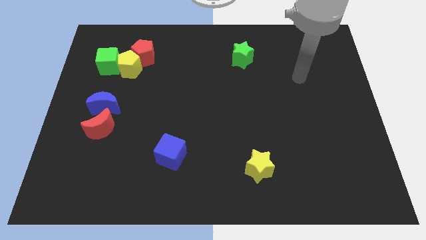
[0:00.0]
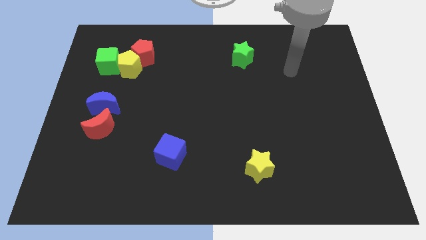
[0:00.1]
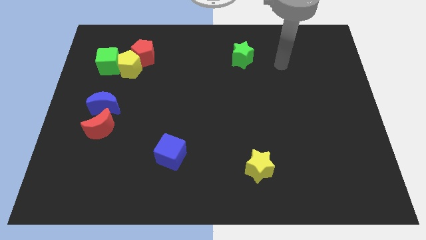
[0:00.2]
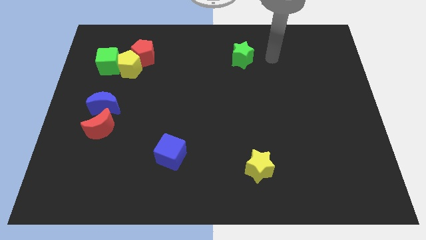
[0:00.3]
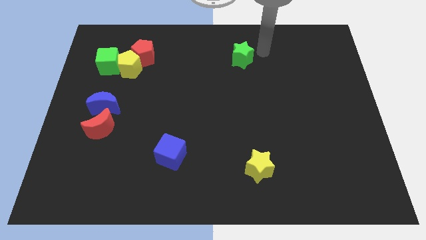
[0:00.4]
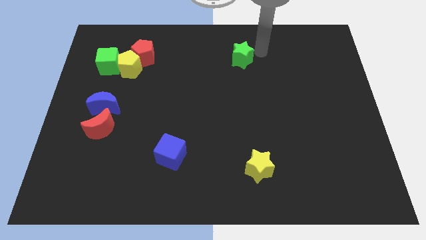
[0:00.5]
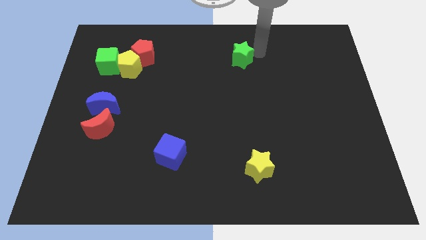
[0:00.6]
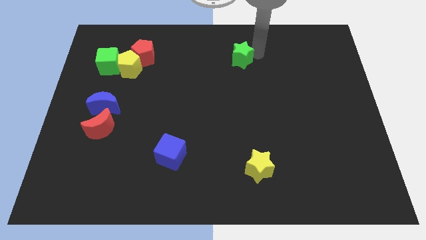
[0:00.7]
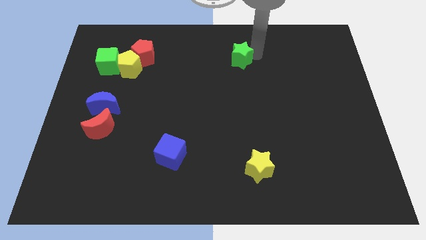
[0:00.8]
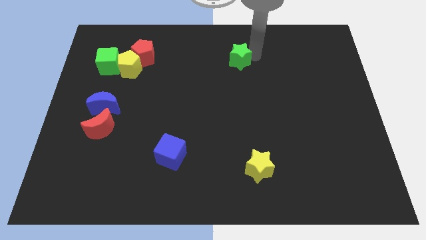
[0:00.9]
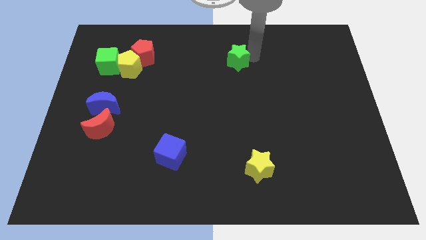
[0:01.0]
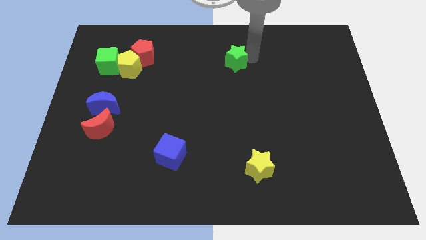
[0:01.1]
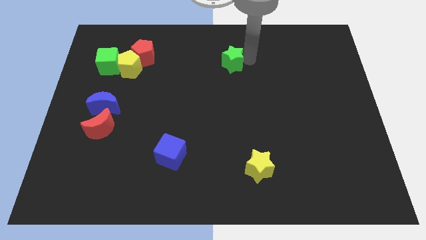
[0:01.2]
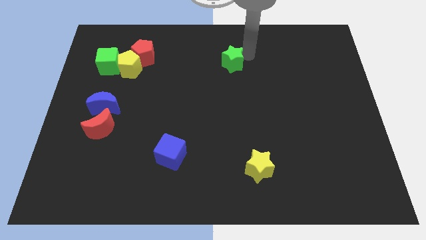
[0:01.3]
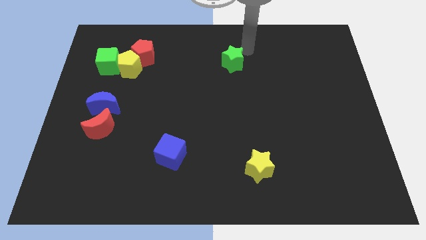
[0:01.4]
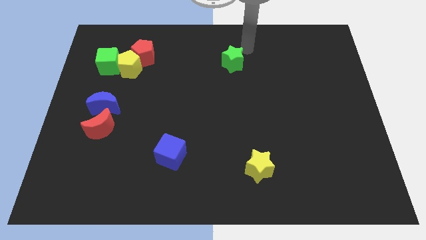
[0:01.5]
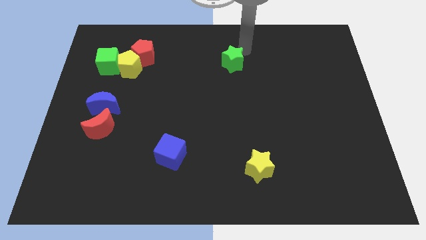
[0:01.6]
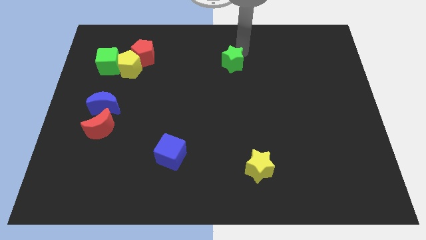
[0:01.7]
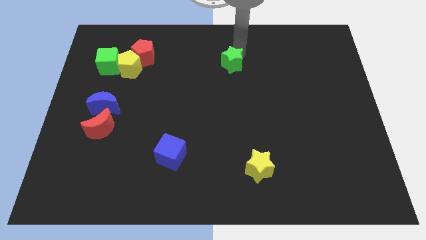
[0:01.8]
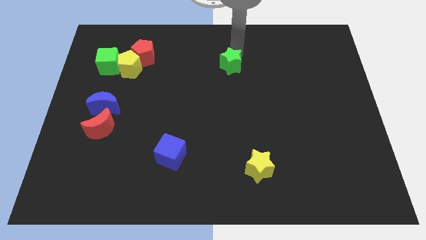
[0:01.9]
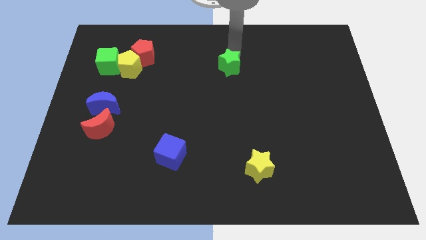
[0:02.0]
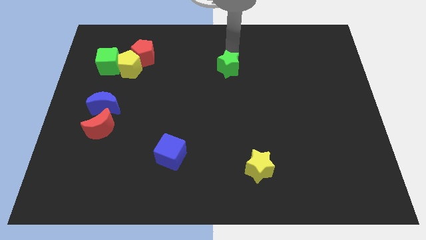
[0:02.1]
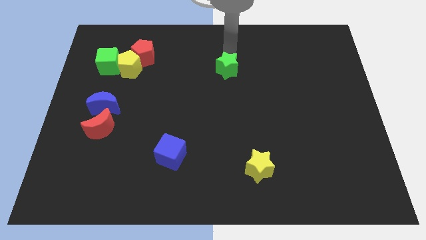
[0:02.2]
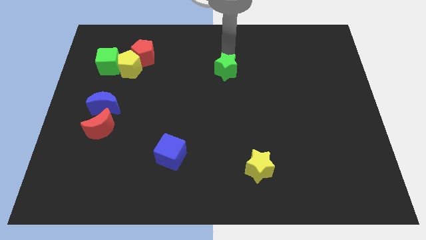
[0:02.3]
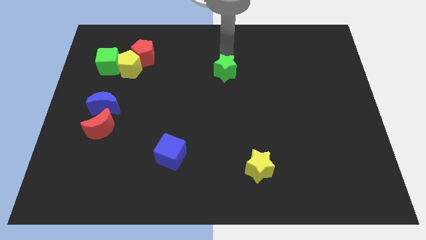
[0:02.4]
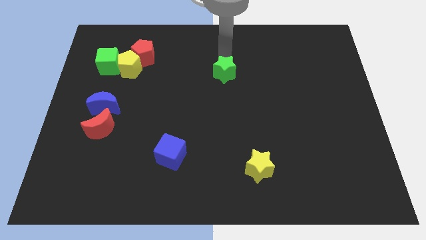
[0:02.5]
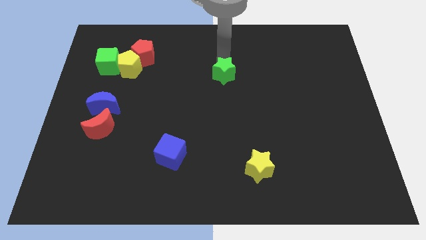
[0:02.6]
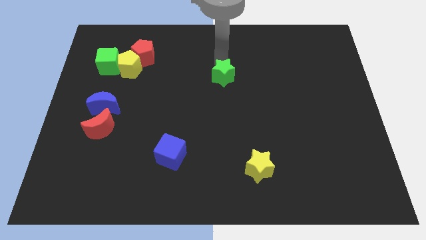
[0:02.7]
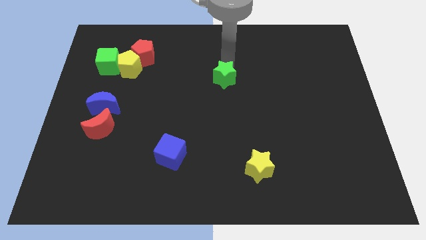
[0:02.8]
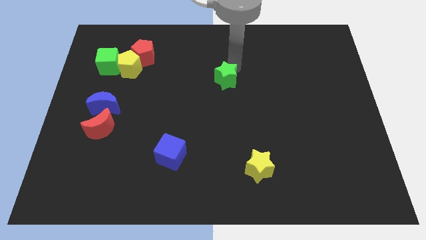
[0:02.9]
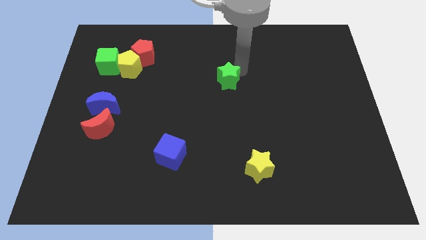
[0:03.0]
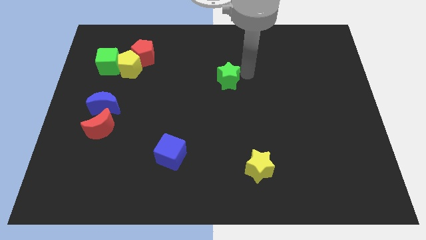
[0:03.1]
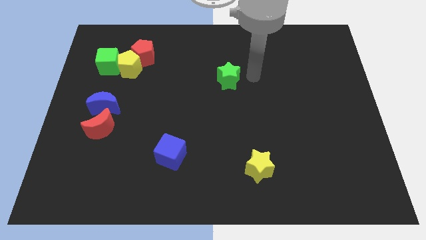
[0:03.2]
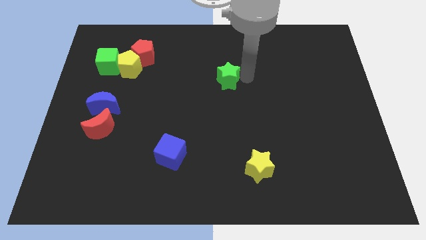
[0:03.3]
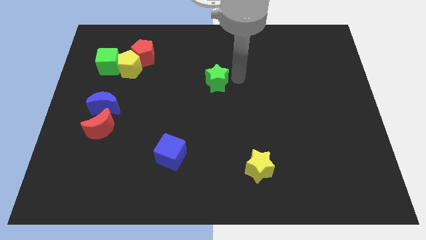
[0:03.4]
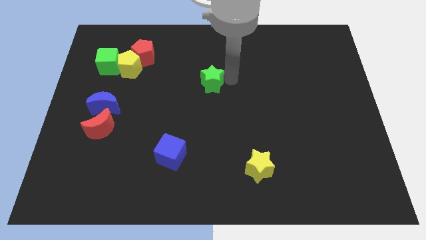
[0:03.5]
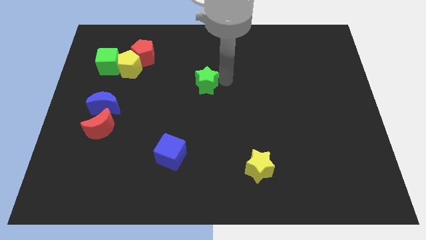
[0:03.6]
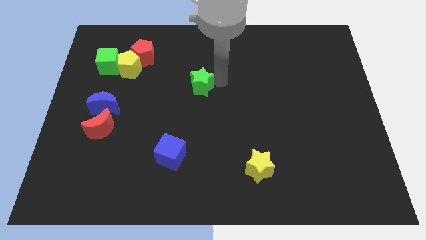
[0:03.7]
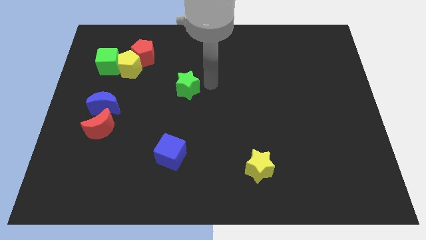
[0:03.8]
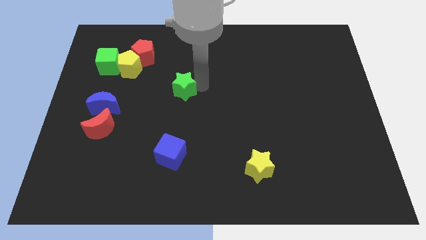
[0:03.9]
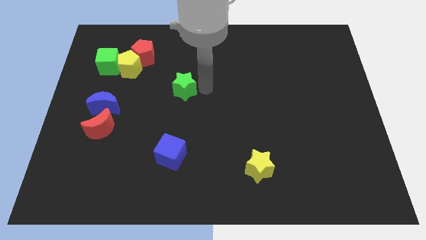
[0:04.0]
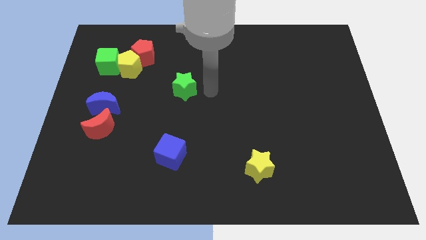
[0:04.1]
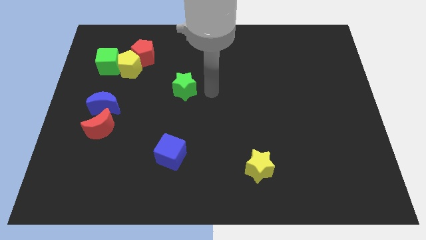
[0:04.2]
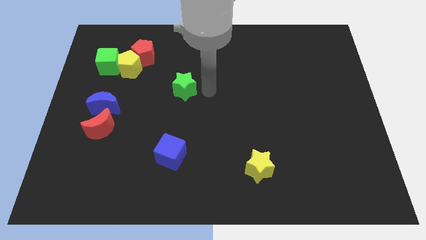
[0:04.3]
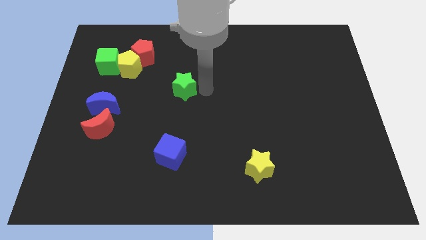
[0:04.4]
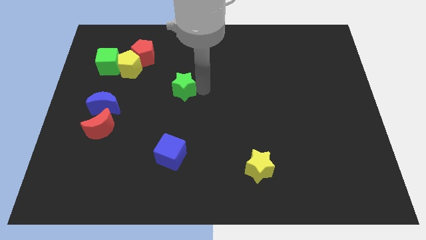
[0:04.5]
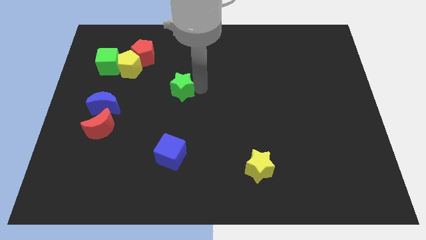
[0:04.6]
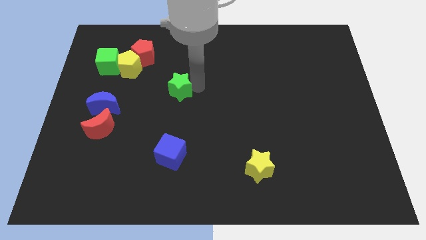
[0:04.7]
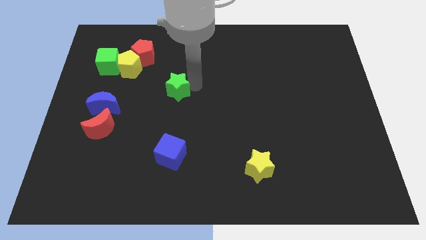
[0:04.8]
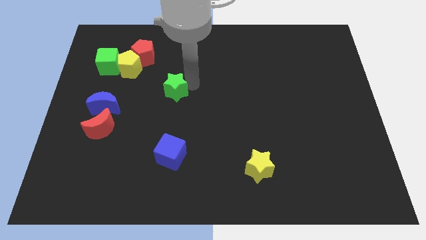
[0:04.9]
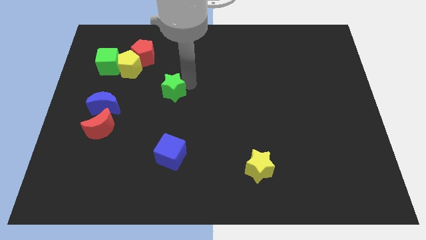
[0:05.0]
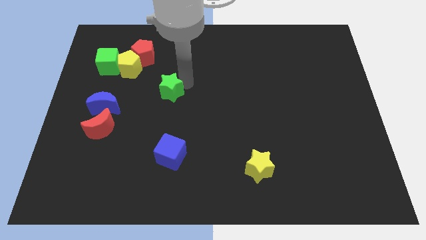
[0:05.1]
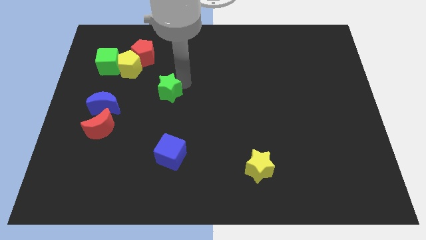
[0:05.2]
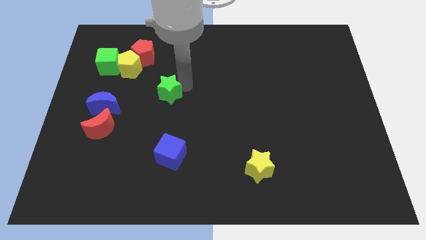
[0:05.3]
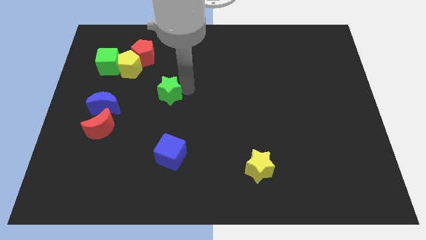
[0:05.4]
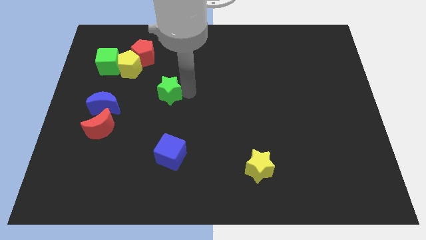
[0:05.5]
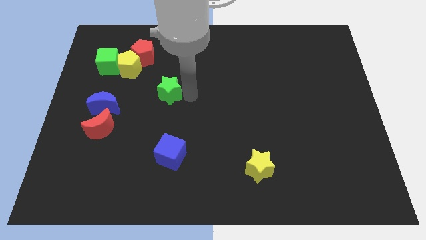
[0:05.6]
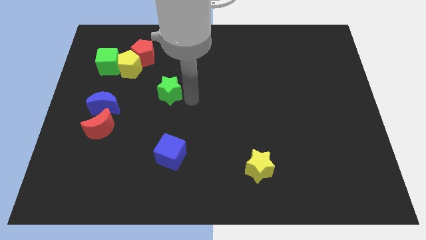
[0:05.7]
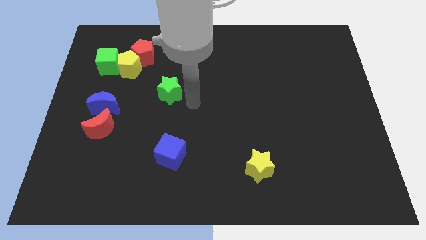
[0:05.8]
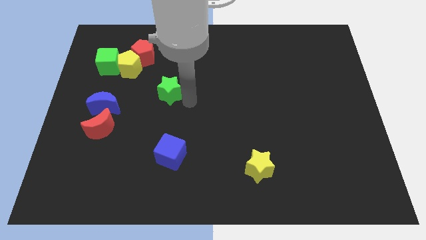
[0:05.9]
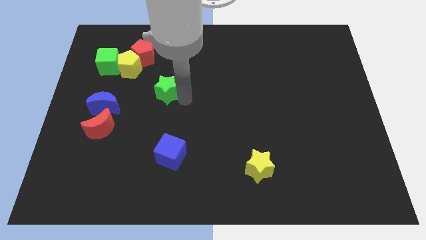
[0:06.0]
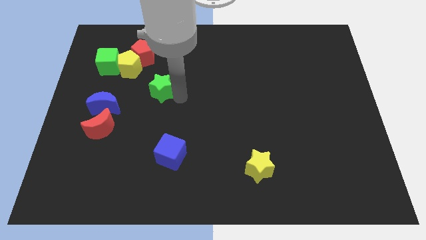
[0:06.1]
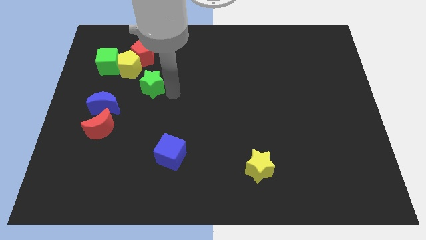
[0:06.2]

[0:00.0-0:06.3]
push the green star to the top right side of the blue moon

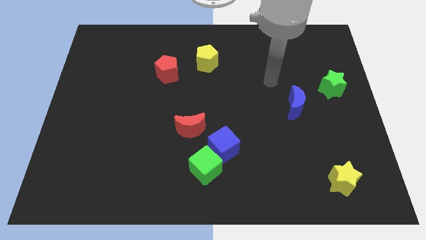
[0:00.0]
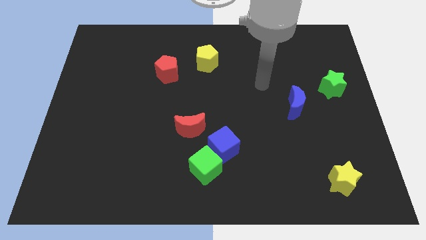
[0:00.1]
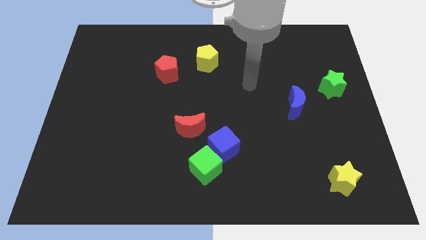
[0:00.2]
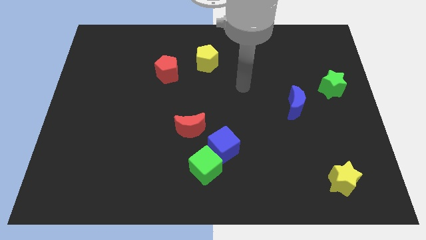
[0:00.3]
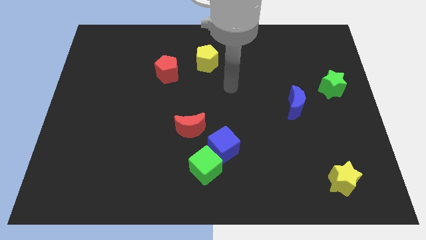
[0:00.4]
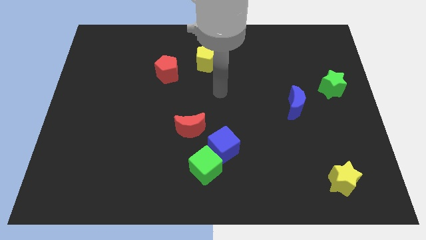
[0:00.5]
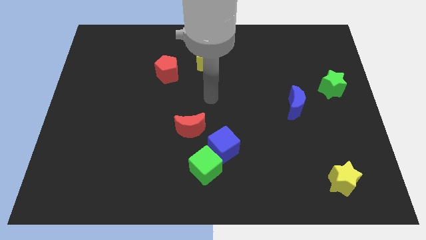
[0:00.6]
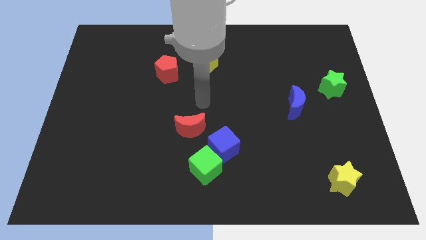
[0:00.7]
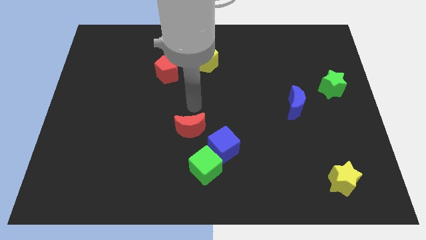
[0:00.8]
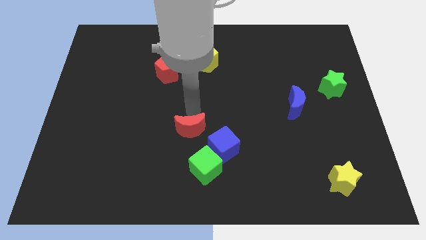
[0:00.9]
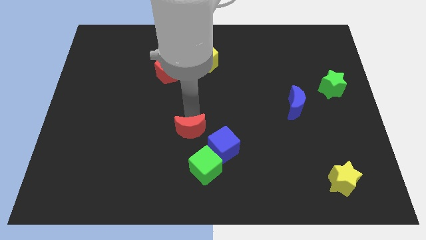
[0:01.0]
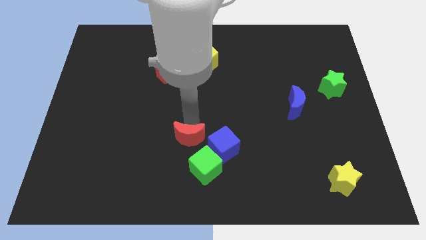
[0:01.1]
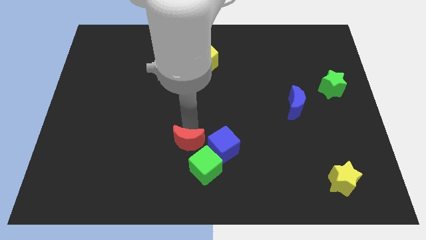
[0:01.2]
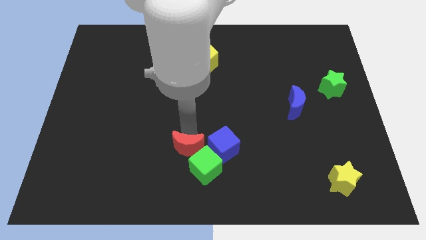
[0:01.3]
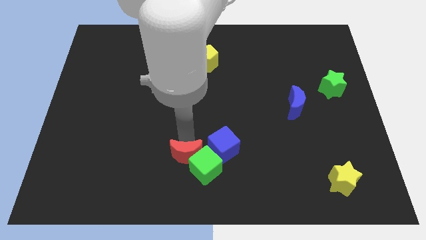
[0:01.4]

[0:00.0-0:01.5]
move the red moon to the bottom left of the blue cube
